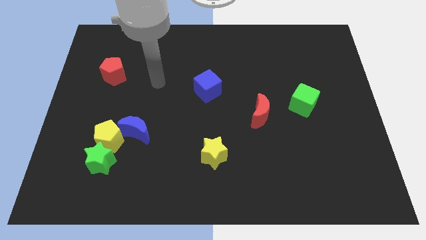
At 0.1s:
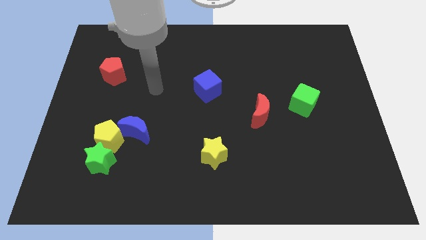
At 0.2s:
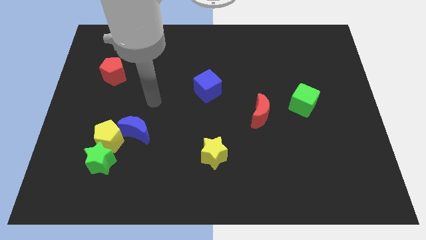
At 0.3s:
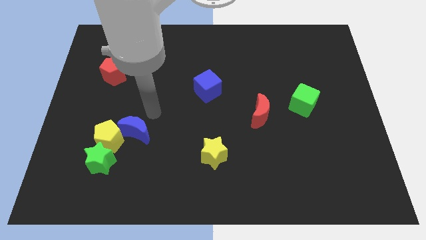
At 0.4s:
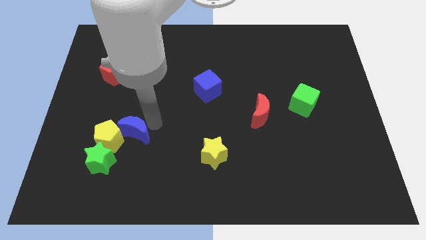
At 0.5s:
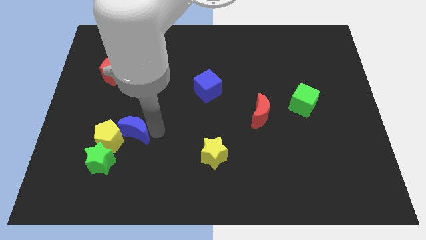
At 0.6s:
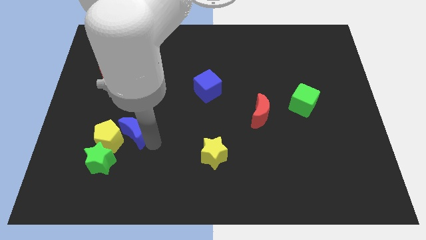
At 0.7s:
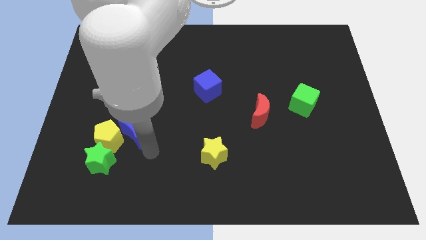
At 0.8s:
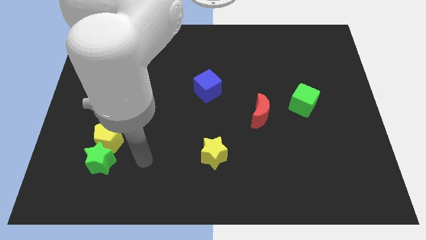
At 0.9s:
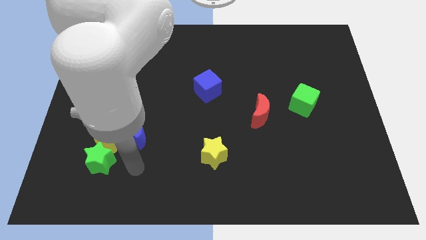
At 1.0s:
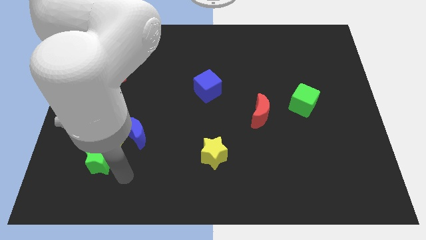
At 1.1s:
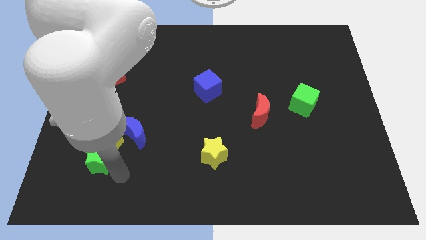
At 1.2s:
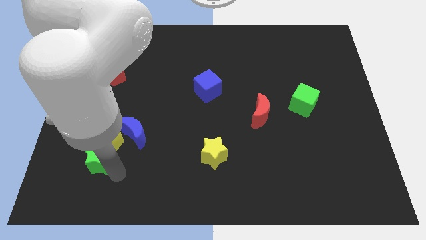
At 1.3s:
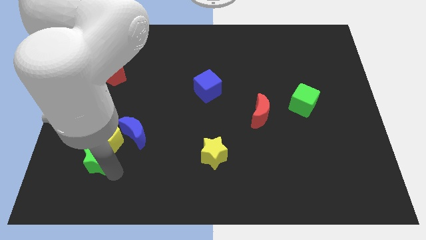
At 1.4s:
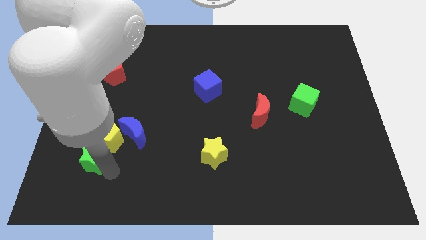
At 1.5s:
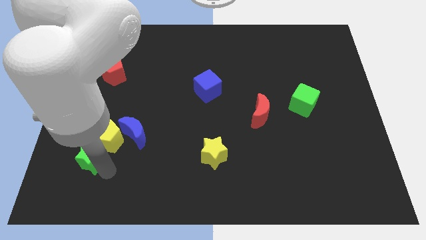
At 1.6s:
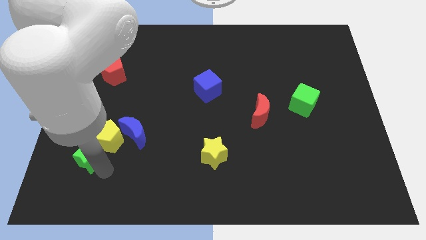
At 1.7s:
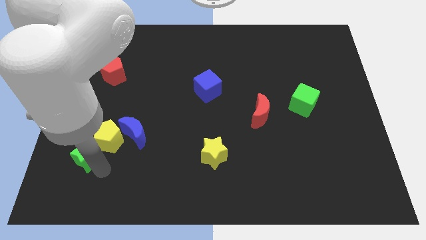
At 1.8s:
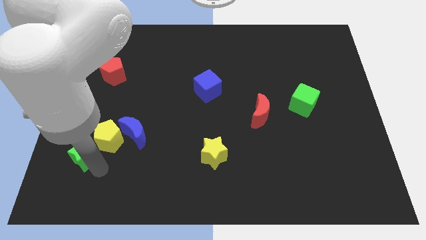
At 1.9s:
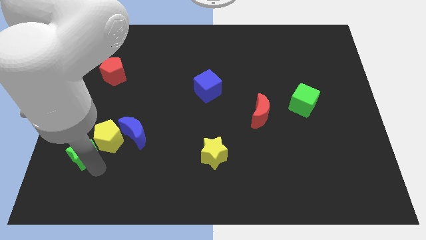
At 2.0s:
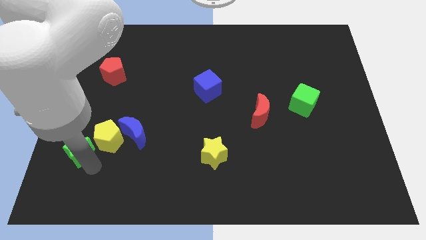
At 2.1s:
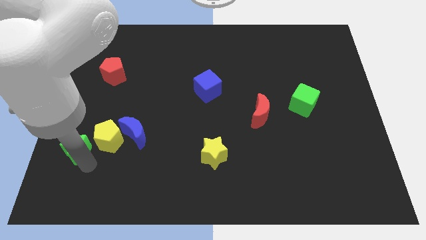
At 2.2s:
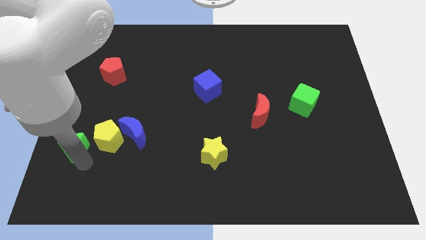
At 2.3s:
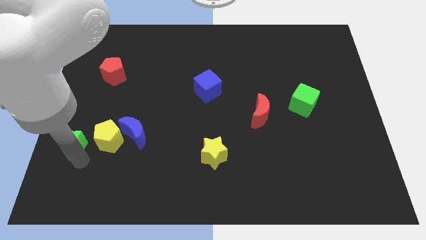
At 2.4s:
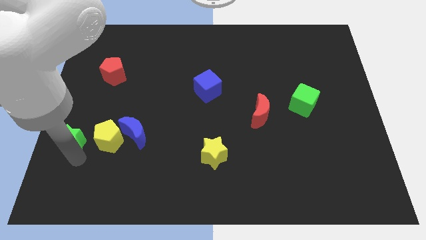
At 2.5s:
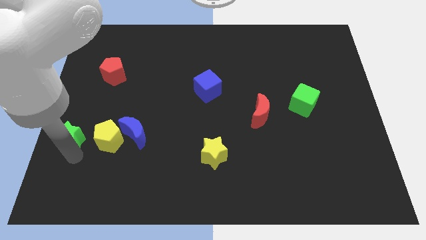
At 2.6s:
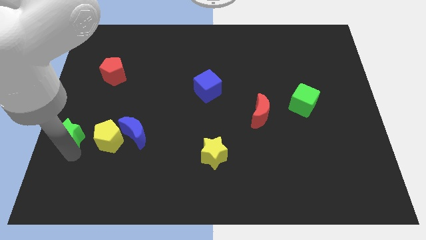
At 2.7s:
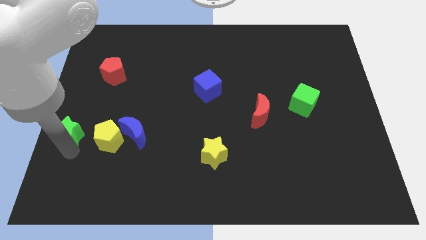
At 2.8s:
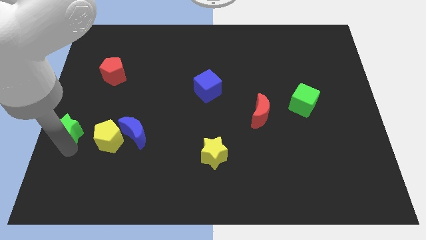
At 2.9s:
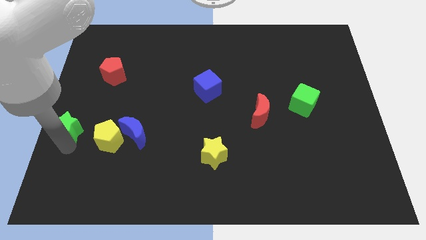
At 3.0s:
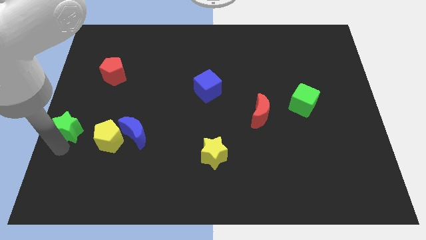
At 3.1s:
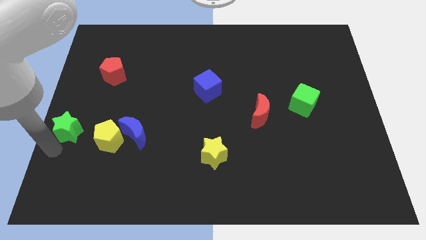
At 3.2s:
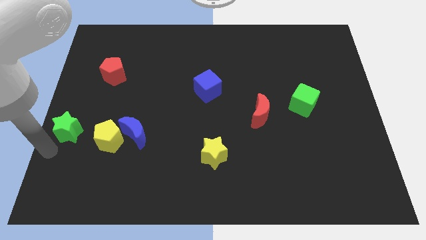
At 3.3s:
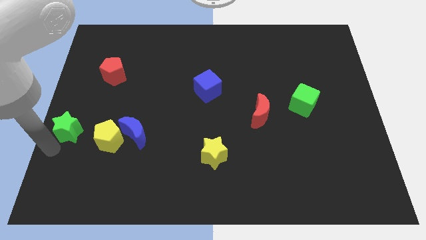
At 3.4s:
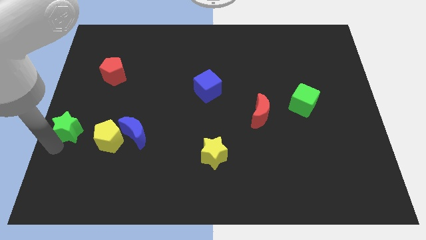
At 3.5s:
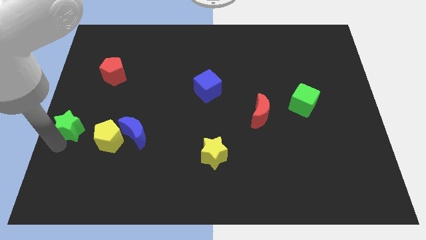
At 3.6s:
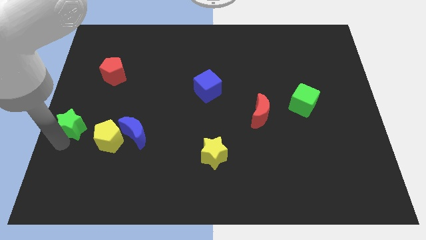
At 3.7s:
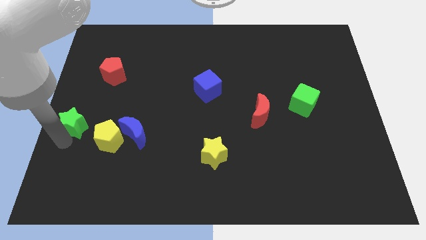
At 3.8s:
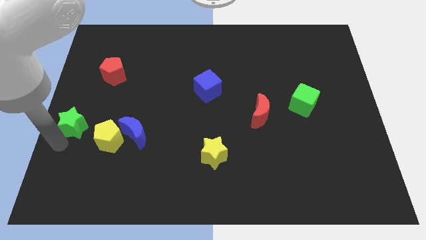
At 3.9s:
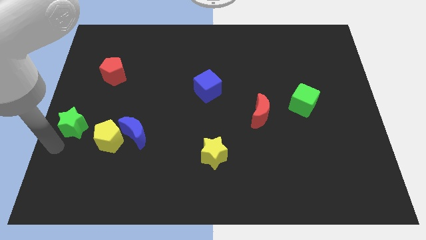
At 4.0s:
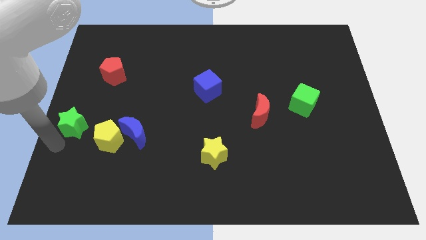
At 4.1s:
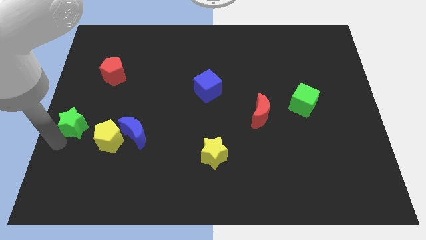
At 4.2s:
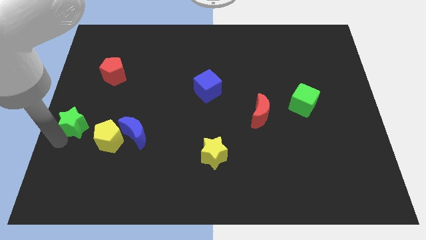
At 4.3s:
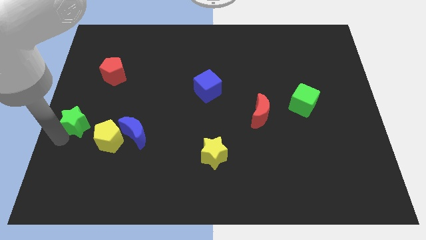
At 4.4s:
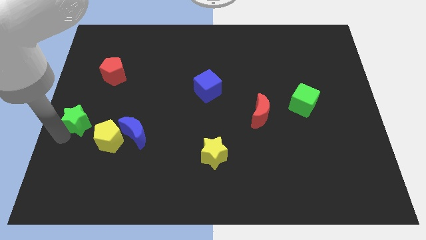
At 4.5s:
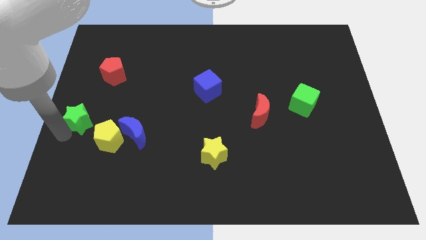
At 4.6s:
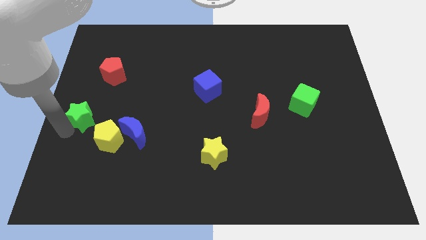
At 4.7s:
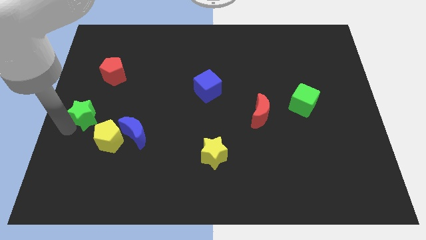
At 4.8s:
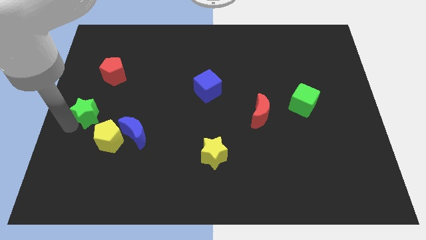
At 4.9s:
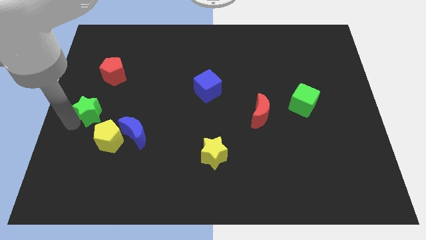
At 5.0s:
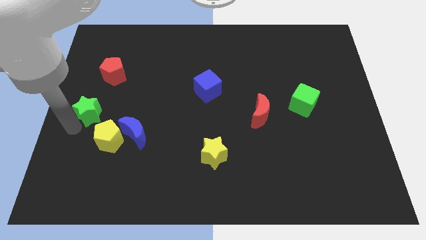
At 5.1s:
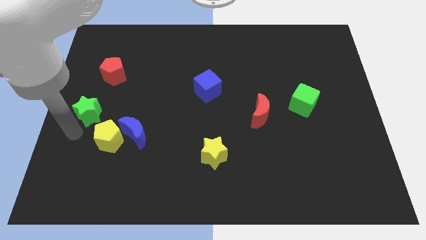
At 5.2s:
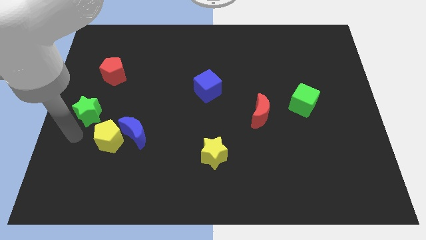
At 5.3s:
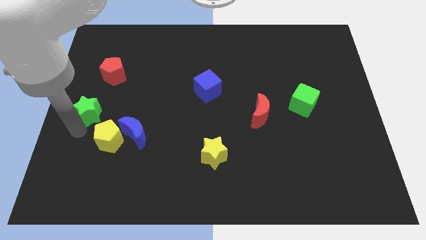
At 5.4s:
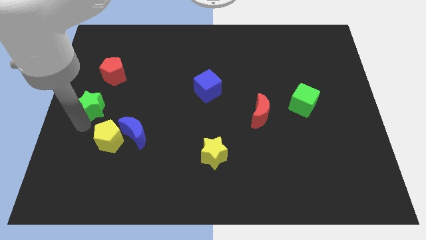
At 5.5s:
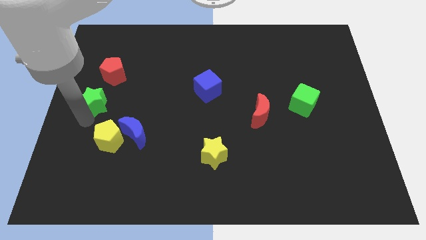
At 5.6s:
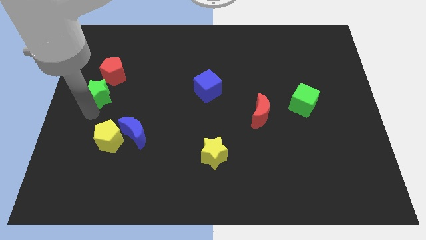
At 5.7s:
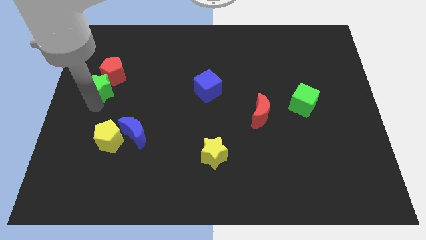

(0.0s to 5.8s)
push the green star to the red pentagon

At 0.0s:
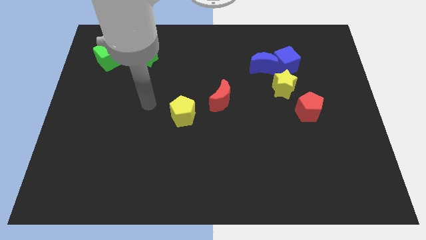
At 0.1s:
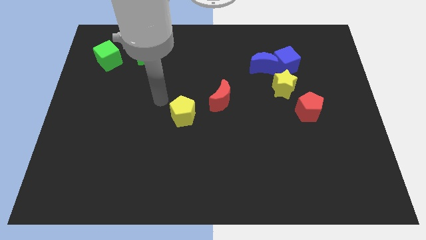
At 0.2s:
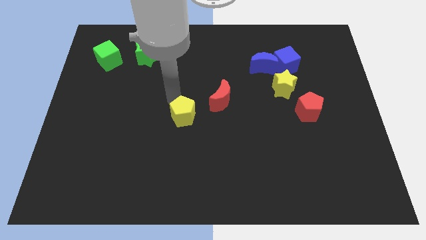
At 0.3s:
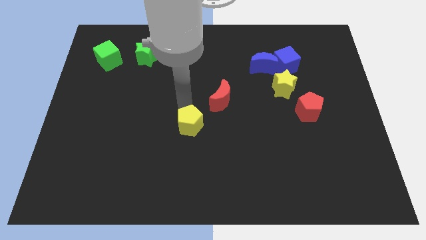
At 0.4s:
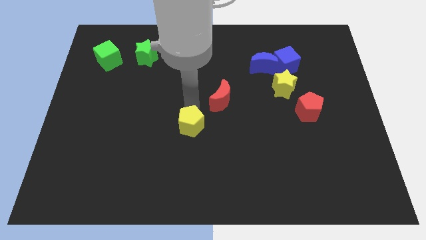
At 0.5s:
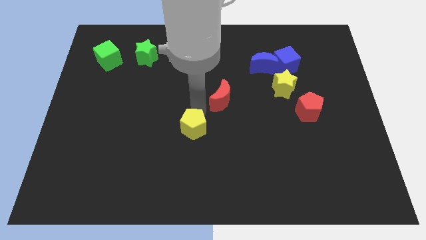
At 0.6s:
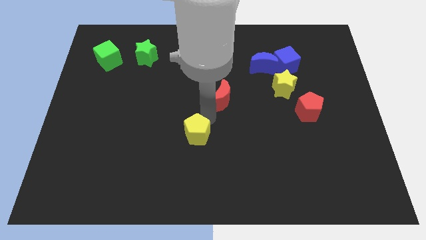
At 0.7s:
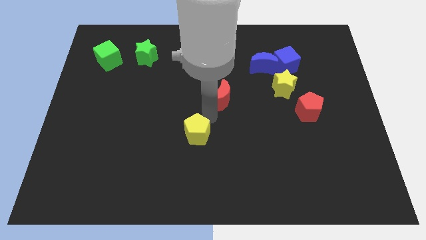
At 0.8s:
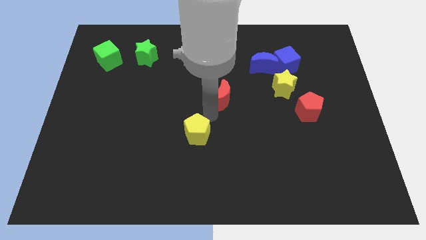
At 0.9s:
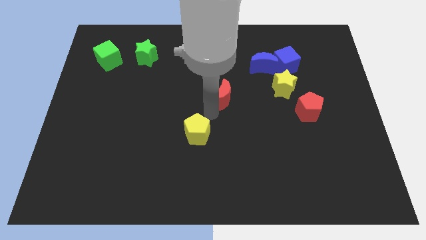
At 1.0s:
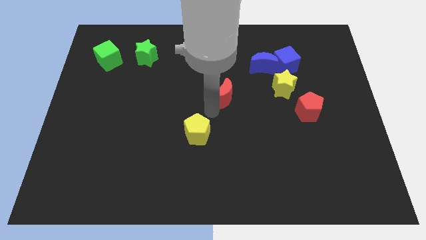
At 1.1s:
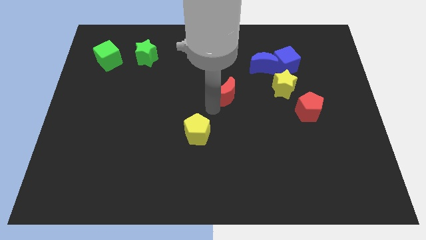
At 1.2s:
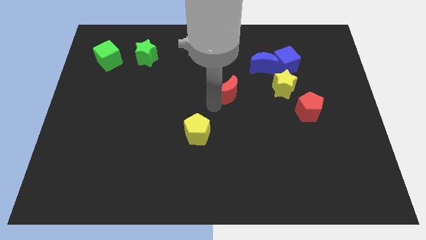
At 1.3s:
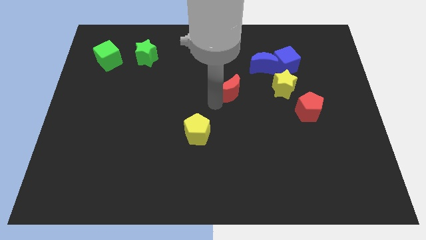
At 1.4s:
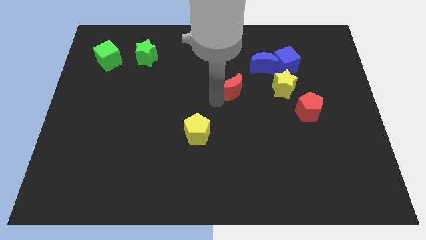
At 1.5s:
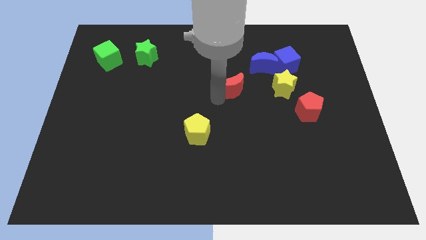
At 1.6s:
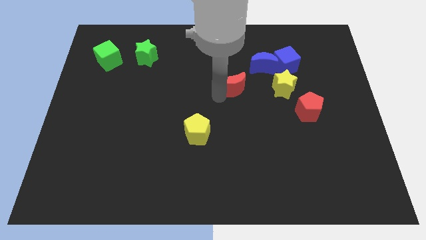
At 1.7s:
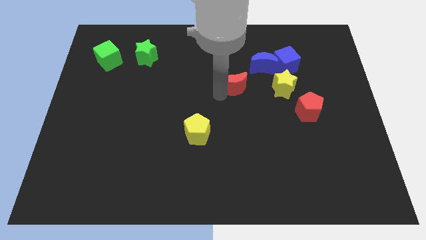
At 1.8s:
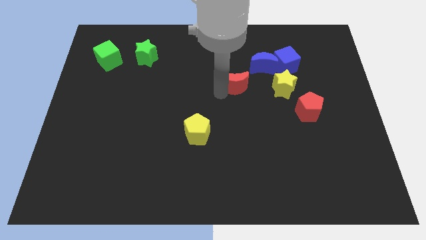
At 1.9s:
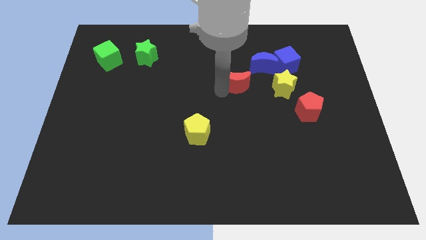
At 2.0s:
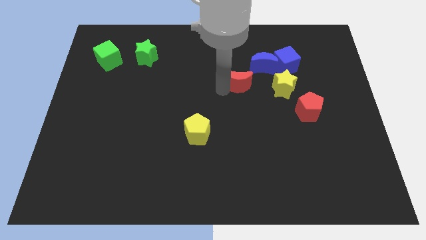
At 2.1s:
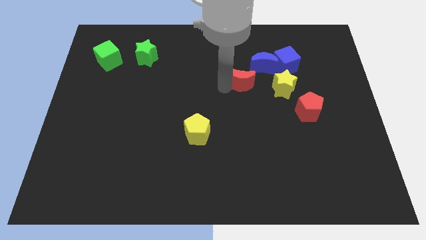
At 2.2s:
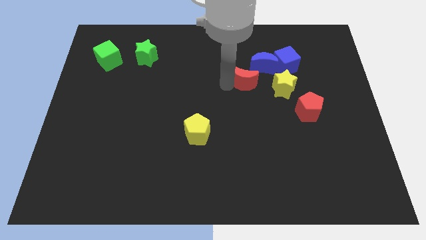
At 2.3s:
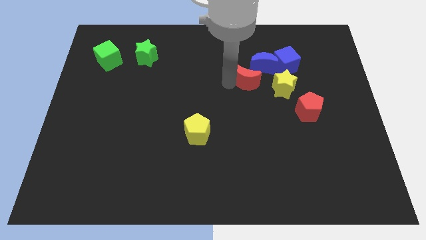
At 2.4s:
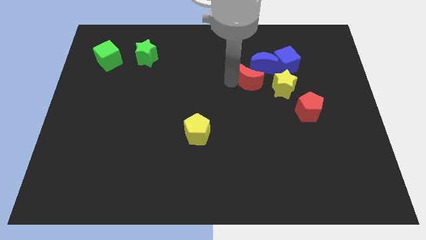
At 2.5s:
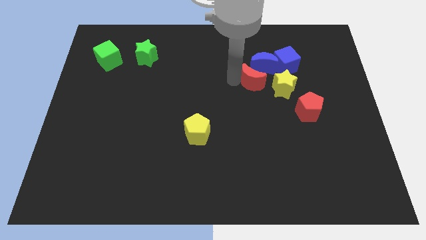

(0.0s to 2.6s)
move the red moon to the blue moon
